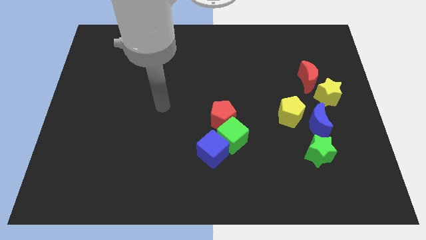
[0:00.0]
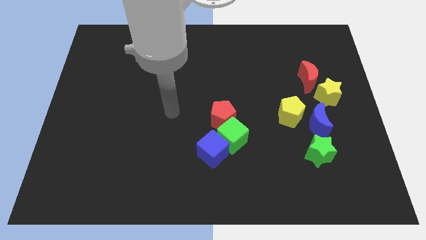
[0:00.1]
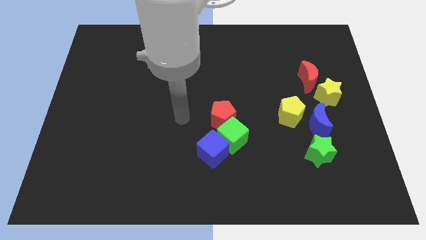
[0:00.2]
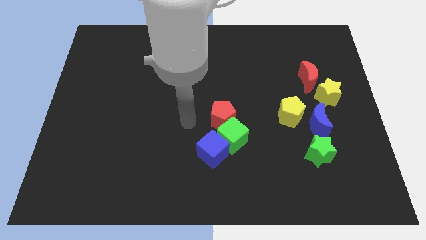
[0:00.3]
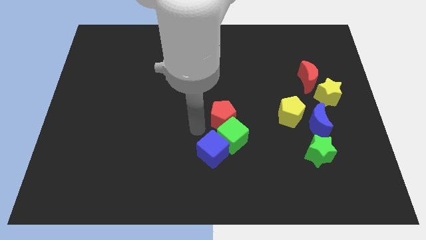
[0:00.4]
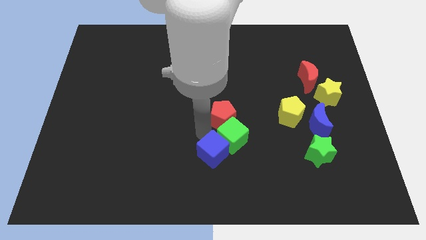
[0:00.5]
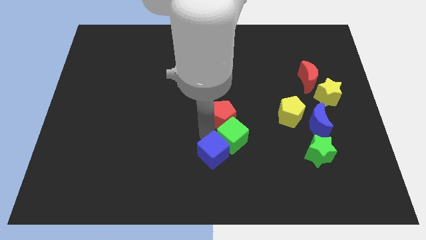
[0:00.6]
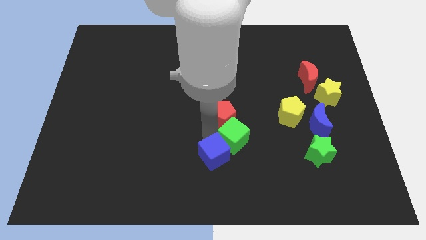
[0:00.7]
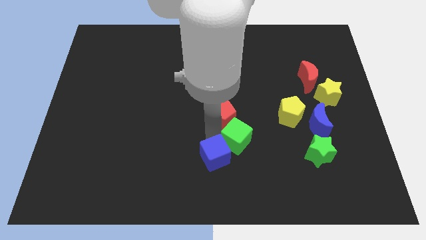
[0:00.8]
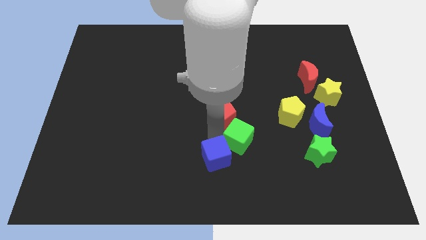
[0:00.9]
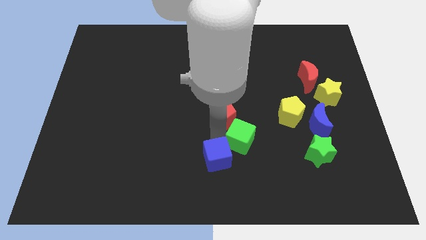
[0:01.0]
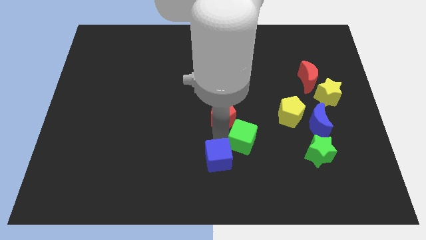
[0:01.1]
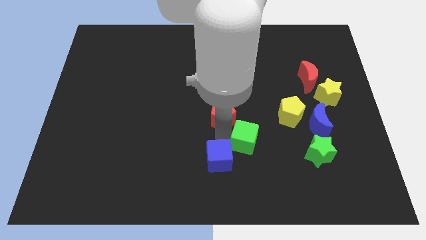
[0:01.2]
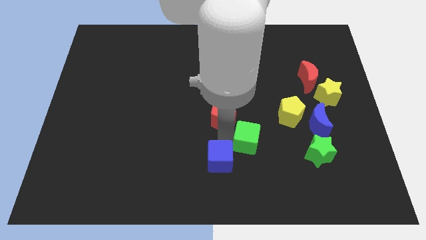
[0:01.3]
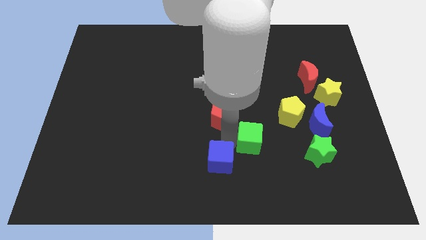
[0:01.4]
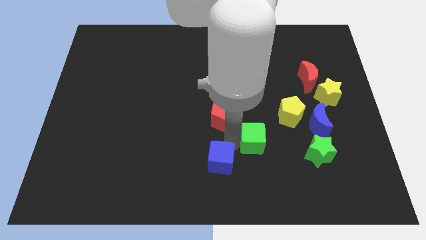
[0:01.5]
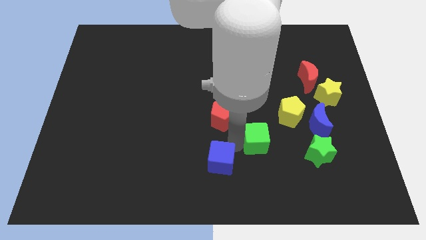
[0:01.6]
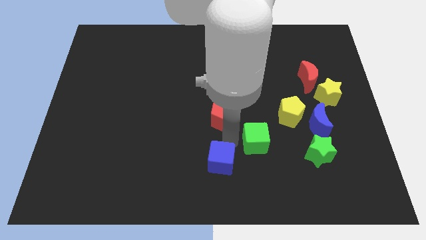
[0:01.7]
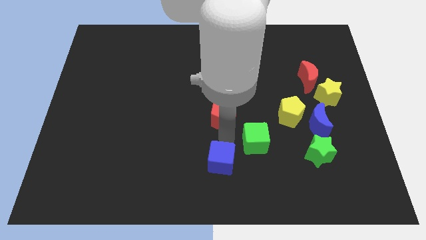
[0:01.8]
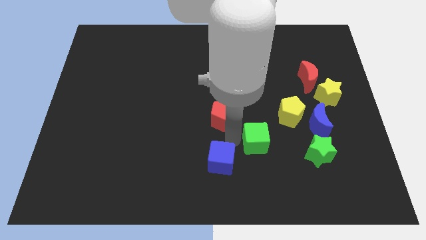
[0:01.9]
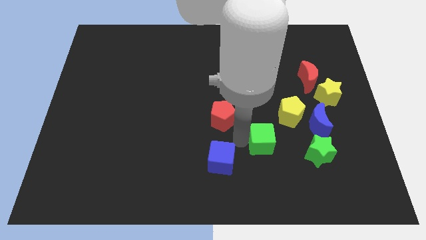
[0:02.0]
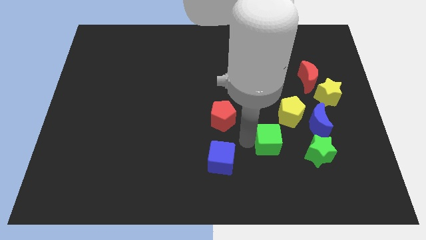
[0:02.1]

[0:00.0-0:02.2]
pull the green cube apart from the blue cube and red pentagon

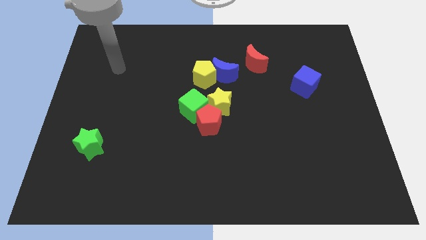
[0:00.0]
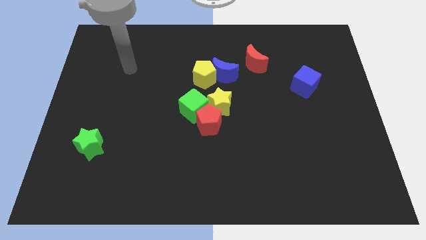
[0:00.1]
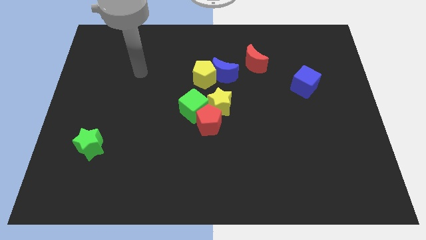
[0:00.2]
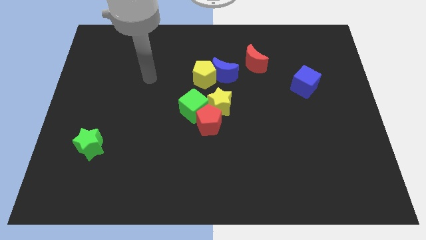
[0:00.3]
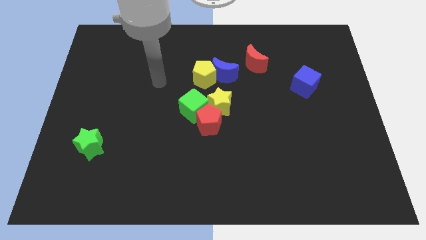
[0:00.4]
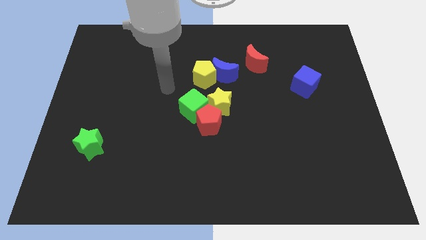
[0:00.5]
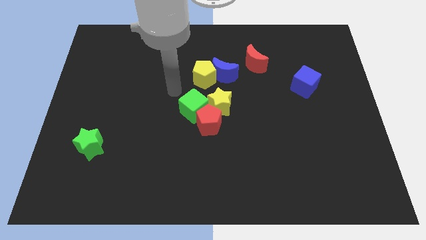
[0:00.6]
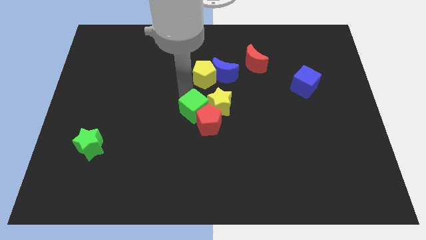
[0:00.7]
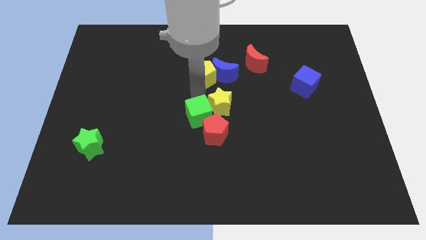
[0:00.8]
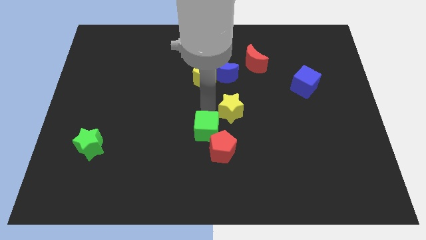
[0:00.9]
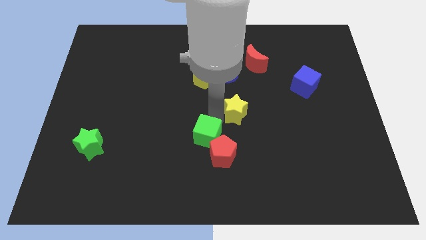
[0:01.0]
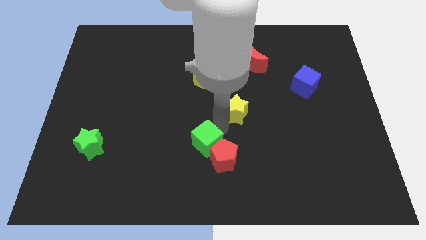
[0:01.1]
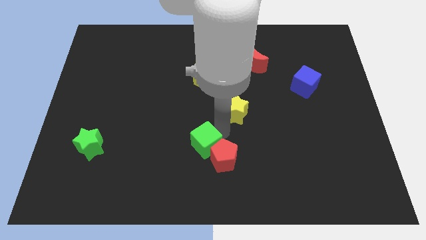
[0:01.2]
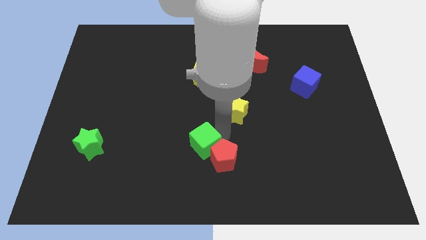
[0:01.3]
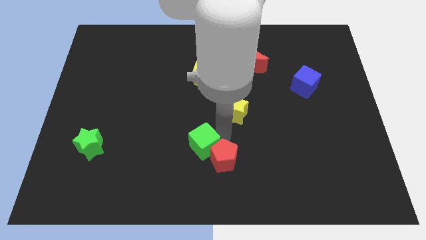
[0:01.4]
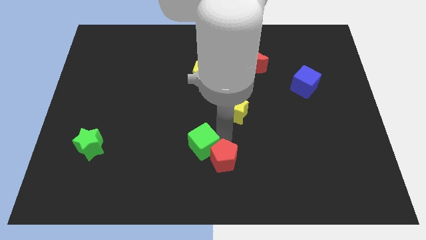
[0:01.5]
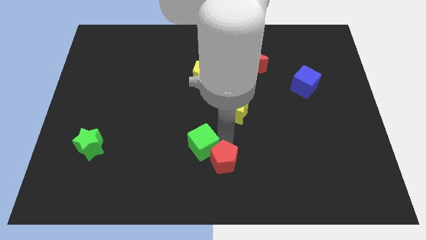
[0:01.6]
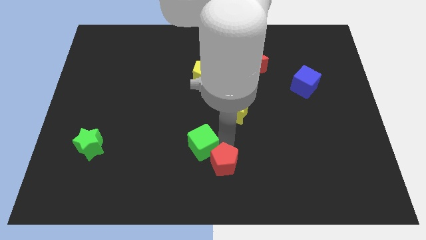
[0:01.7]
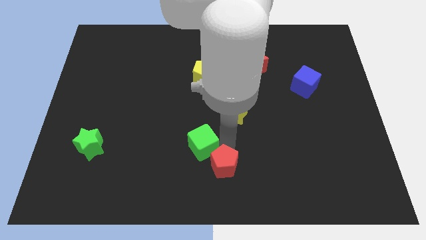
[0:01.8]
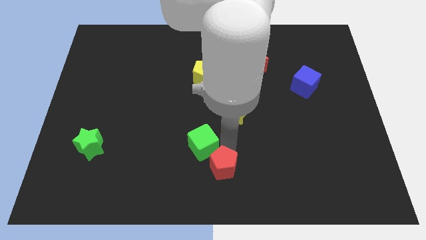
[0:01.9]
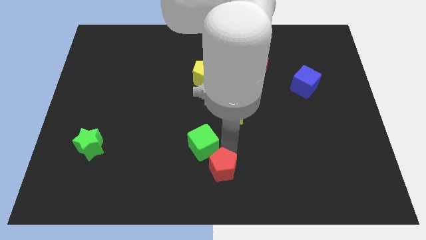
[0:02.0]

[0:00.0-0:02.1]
move the red pentagon away from the green cube and yellow star

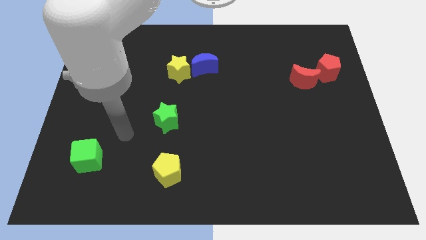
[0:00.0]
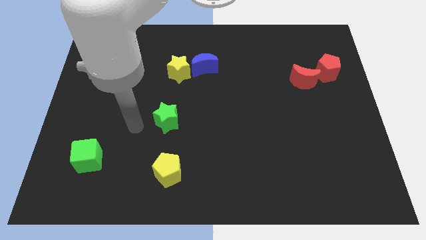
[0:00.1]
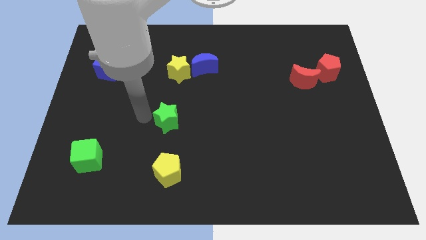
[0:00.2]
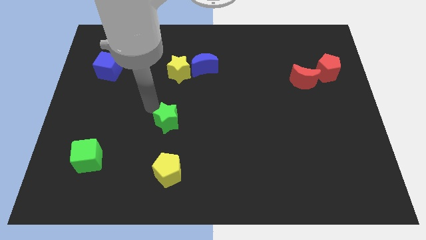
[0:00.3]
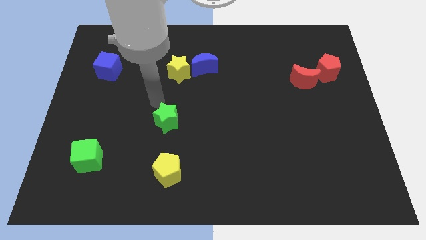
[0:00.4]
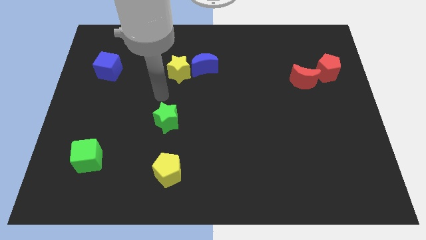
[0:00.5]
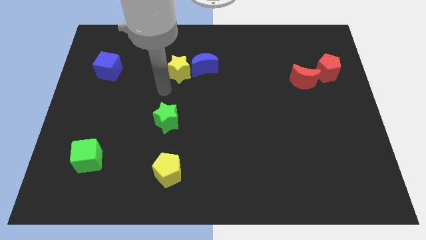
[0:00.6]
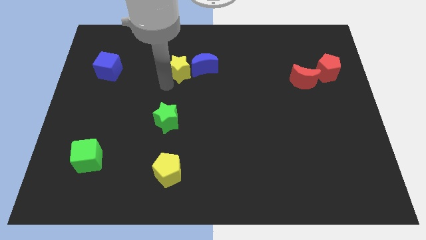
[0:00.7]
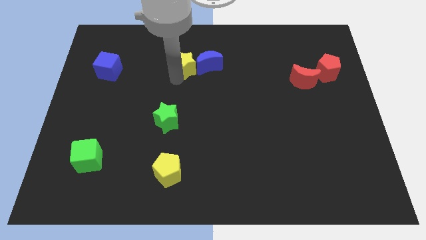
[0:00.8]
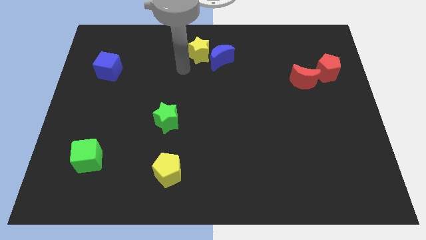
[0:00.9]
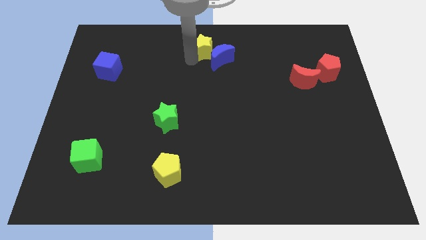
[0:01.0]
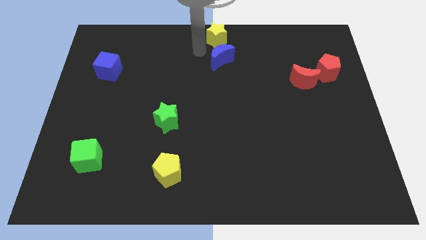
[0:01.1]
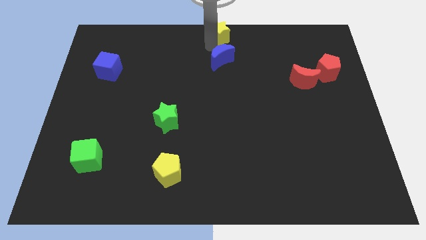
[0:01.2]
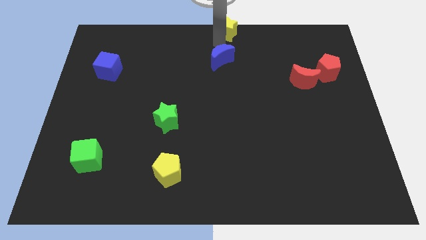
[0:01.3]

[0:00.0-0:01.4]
move the blue moon away from the yellow star

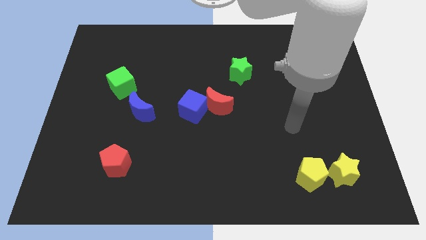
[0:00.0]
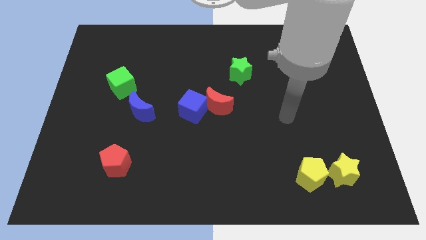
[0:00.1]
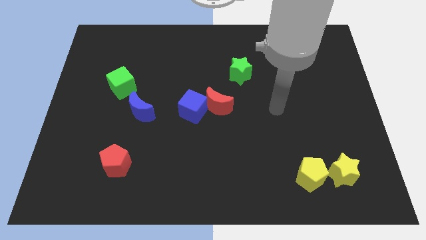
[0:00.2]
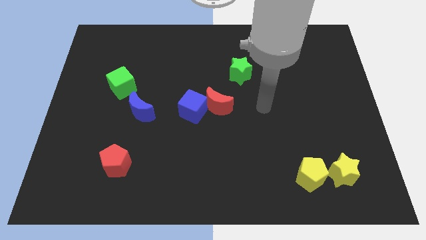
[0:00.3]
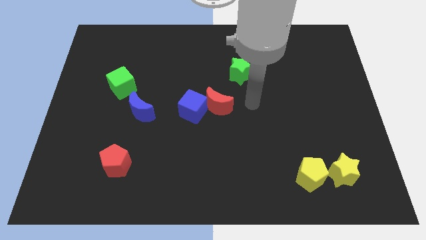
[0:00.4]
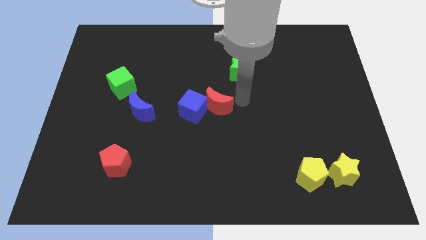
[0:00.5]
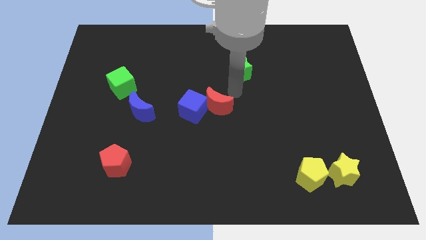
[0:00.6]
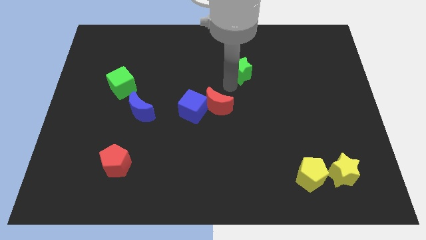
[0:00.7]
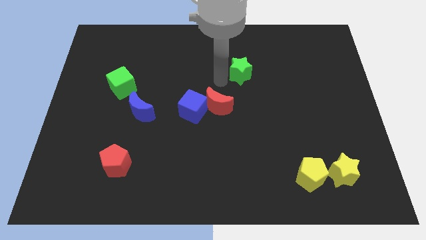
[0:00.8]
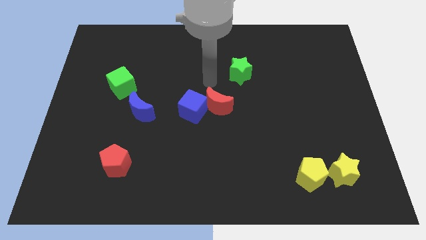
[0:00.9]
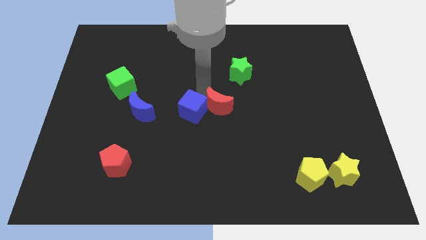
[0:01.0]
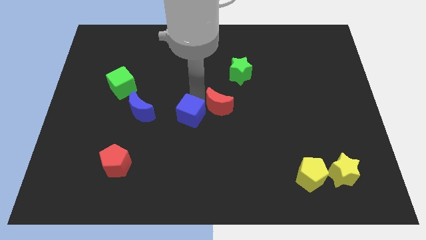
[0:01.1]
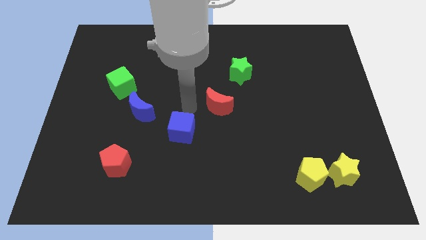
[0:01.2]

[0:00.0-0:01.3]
separate the red moon from the blue cube

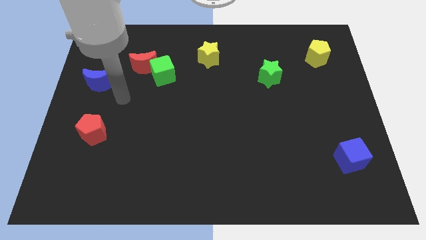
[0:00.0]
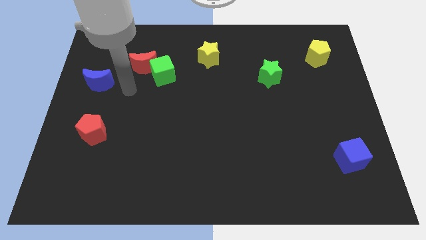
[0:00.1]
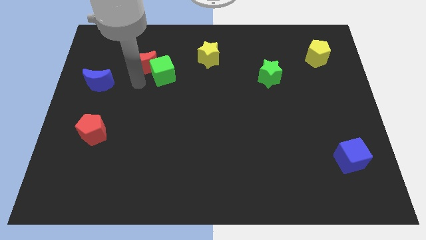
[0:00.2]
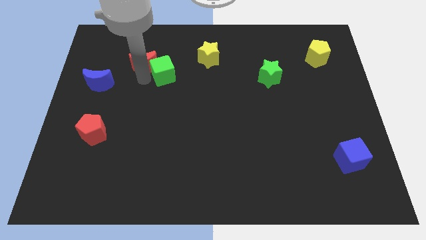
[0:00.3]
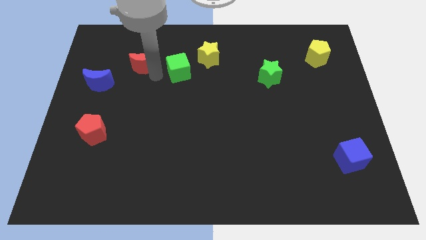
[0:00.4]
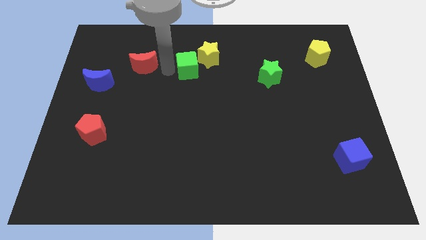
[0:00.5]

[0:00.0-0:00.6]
move the red moon away from the green cube

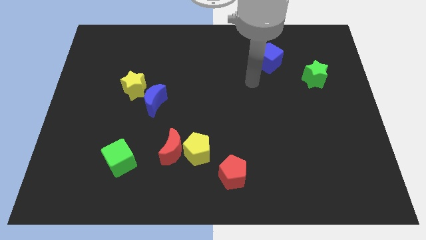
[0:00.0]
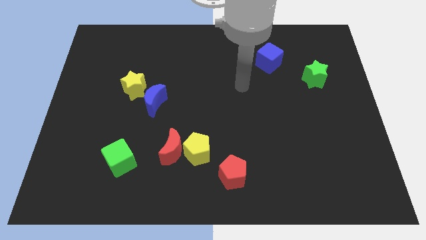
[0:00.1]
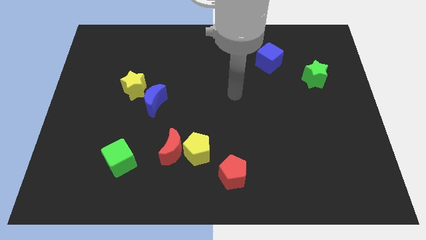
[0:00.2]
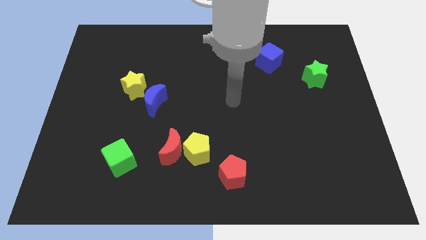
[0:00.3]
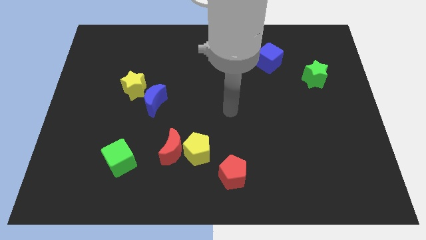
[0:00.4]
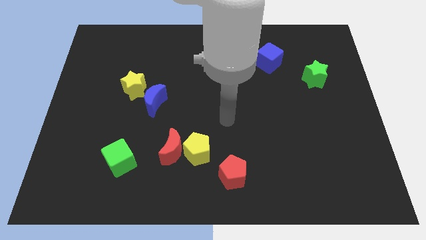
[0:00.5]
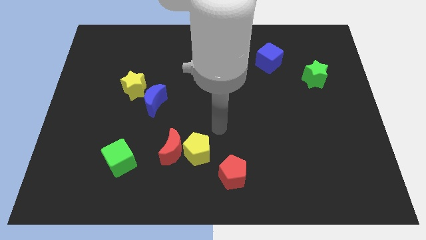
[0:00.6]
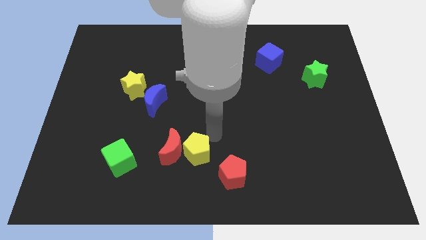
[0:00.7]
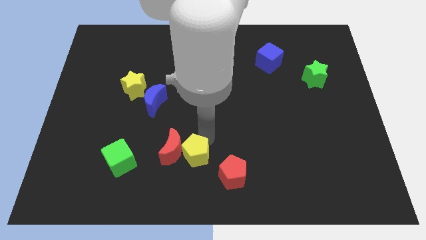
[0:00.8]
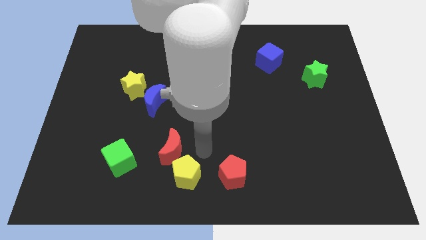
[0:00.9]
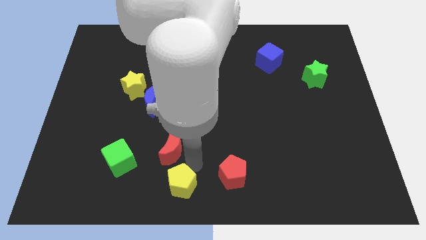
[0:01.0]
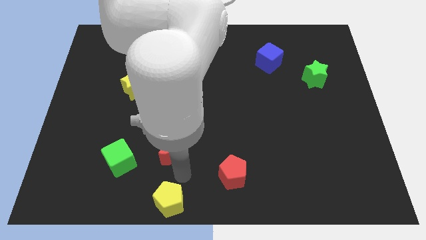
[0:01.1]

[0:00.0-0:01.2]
separate the red moon from the yellow pentagon

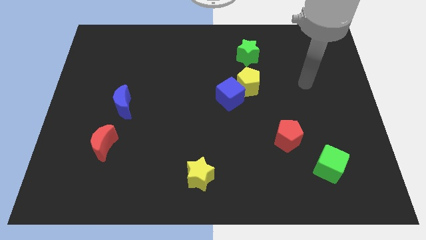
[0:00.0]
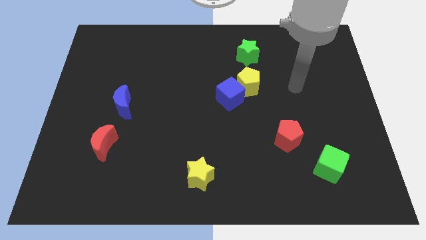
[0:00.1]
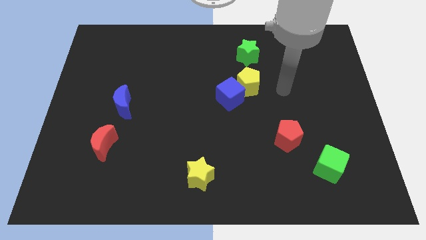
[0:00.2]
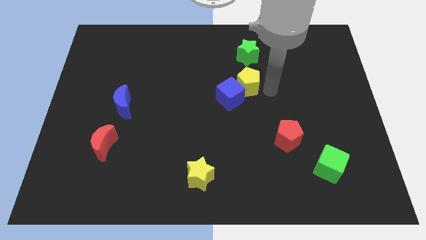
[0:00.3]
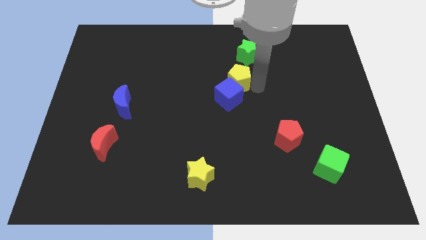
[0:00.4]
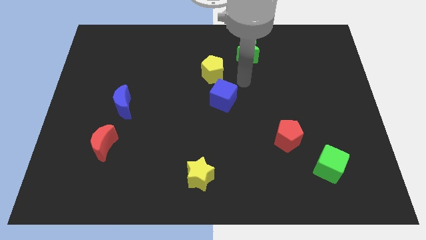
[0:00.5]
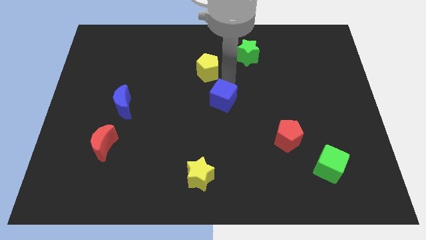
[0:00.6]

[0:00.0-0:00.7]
separate the blue cube from the yellow pentagon
